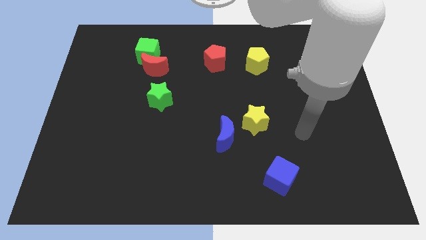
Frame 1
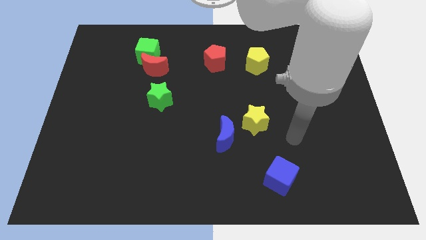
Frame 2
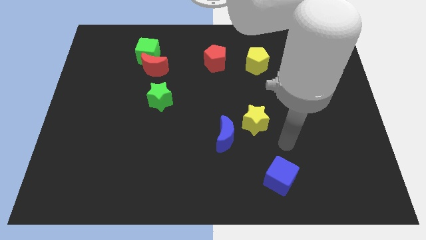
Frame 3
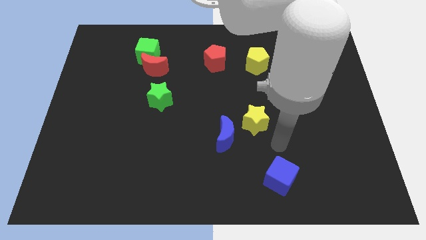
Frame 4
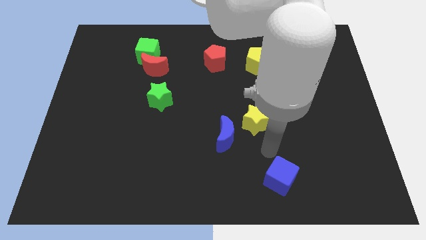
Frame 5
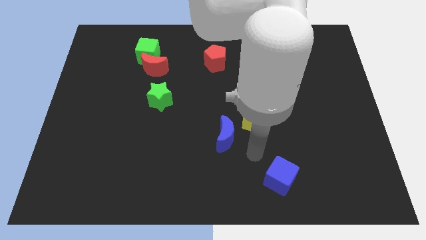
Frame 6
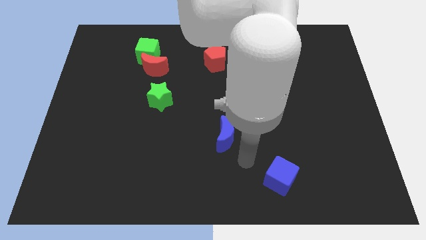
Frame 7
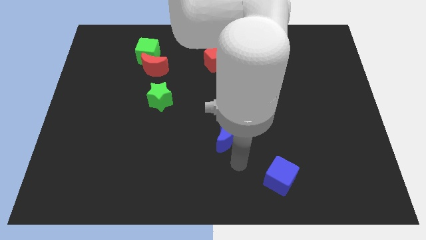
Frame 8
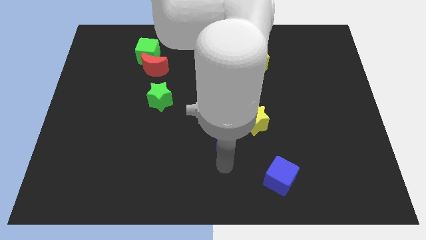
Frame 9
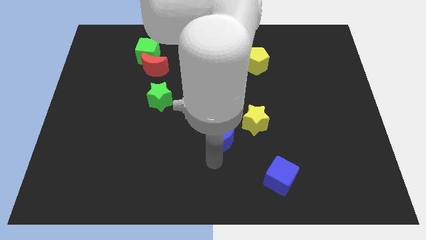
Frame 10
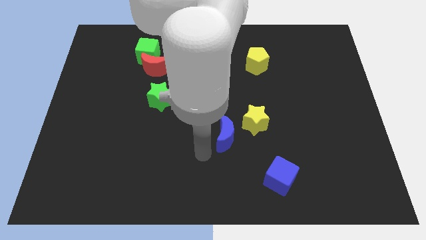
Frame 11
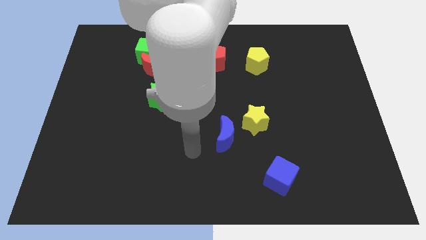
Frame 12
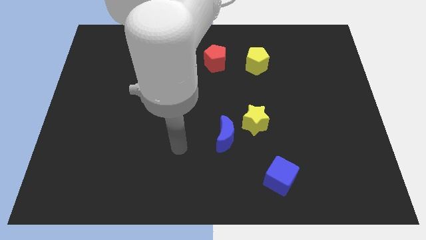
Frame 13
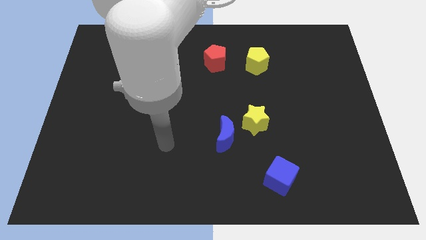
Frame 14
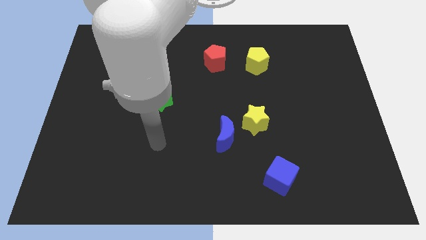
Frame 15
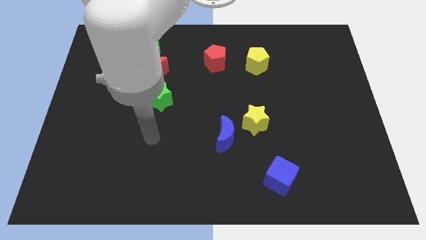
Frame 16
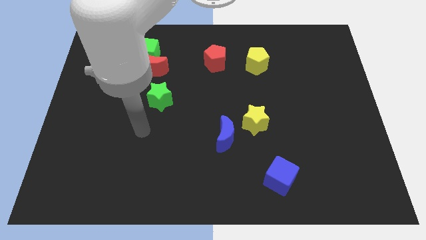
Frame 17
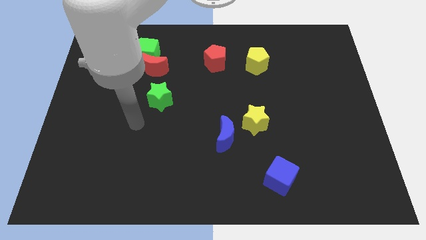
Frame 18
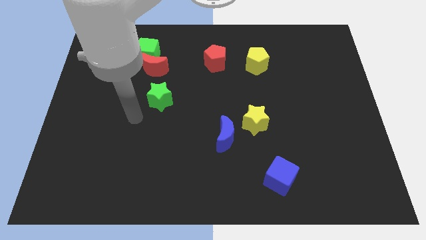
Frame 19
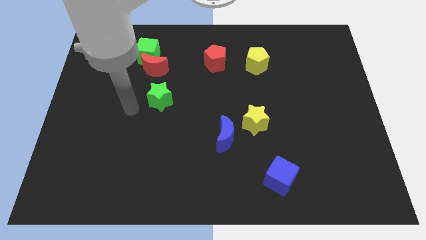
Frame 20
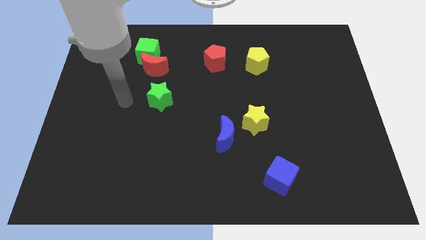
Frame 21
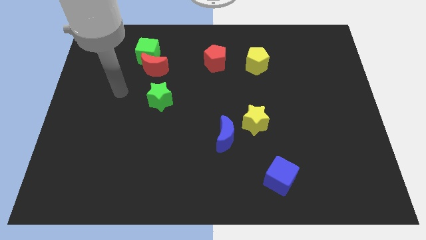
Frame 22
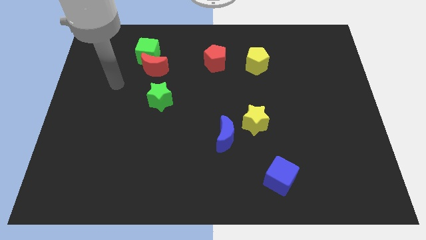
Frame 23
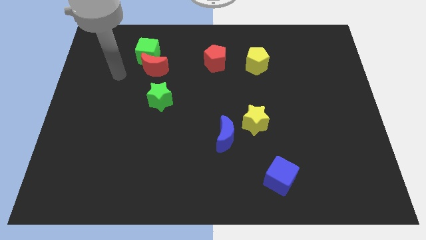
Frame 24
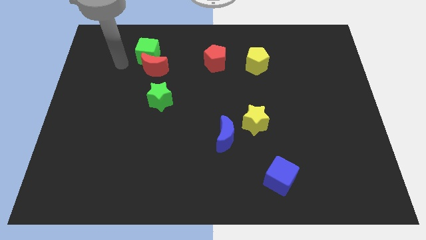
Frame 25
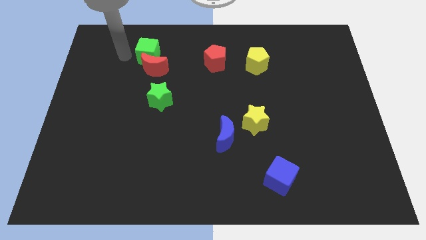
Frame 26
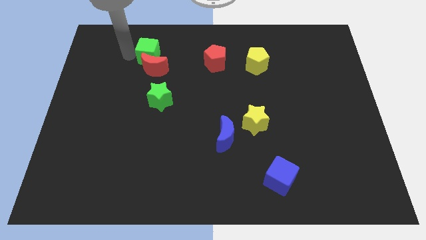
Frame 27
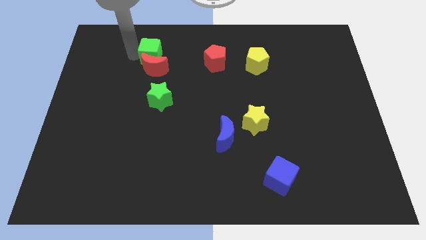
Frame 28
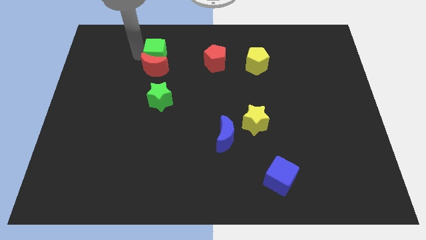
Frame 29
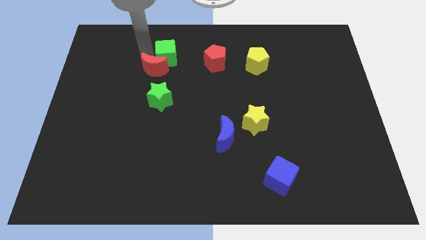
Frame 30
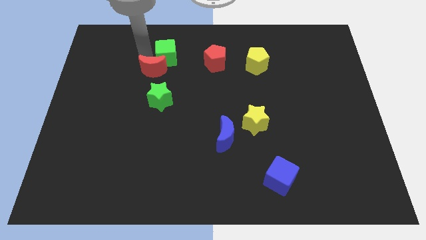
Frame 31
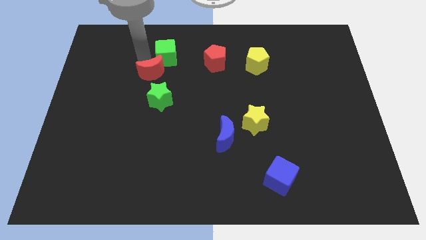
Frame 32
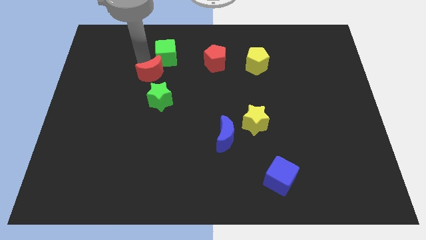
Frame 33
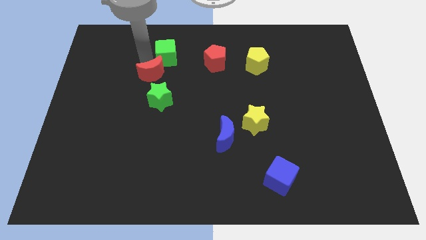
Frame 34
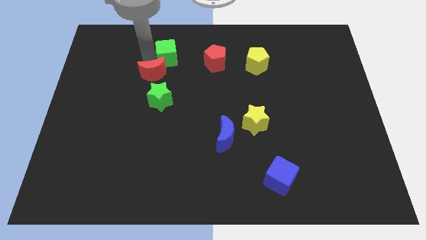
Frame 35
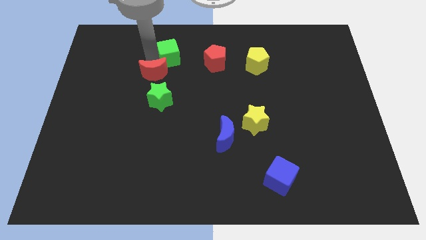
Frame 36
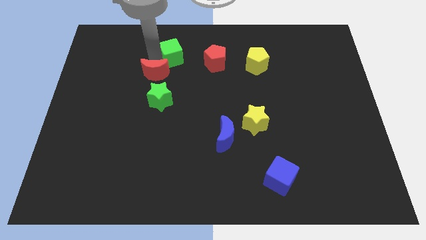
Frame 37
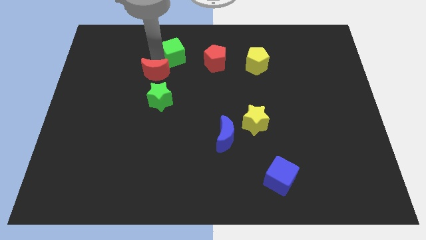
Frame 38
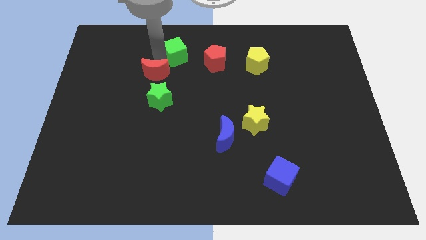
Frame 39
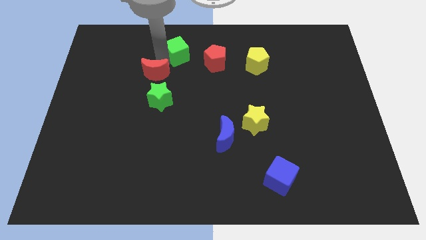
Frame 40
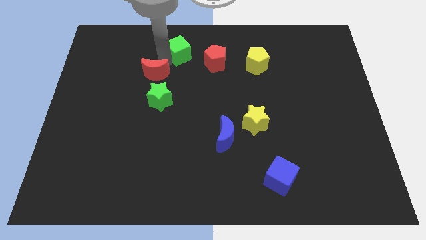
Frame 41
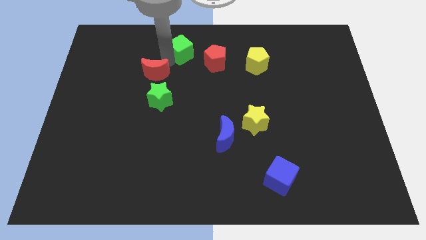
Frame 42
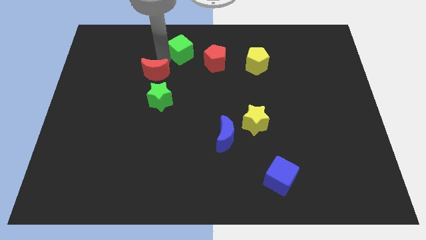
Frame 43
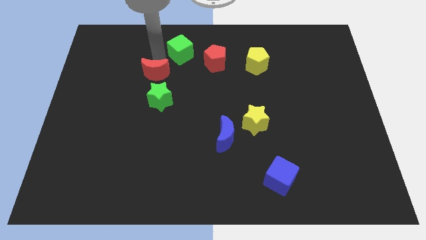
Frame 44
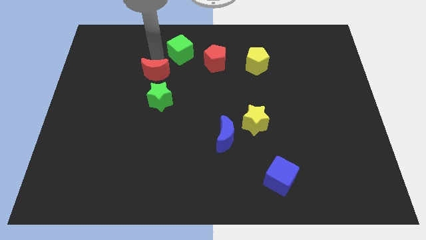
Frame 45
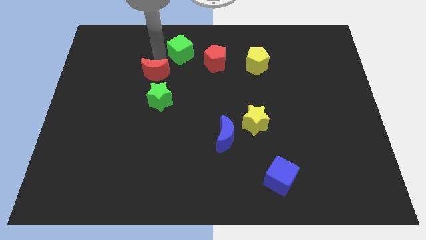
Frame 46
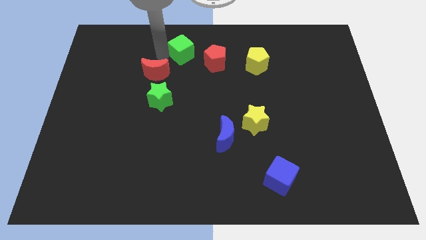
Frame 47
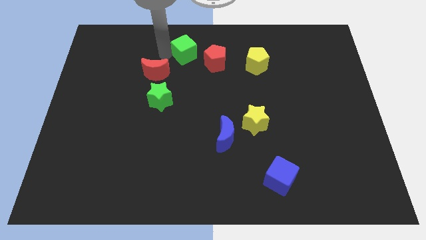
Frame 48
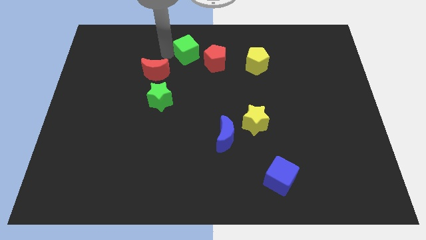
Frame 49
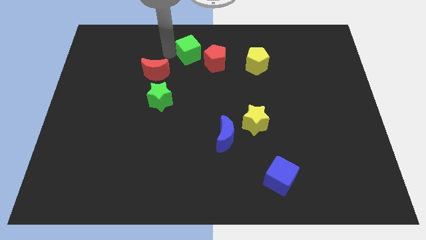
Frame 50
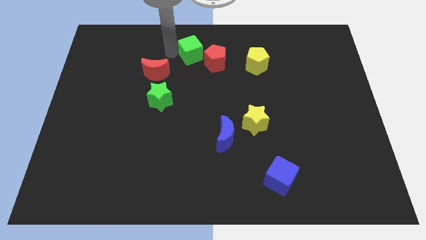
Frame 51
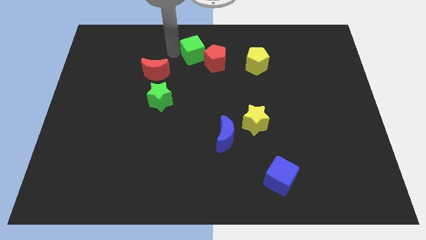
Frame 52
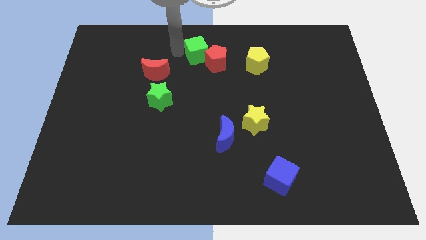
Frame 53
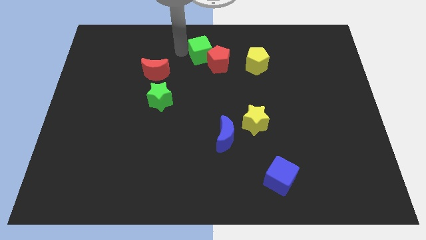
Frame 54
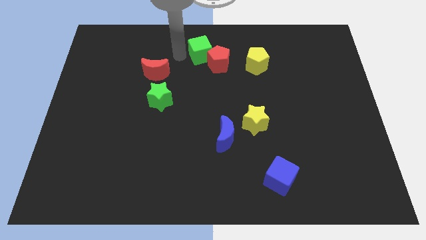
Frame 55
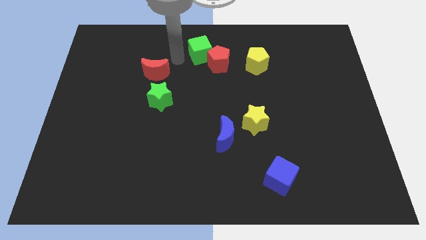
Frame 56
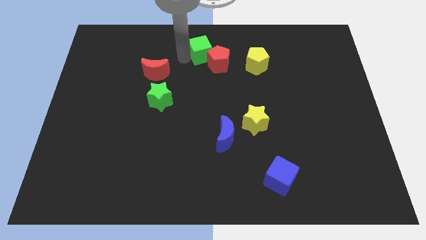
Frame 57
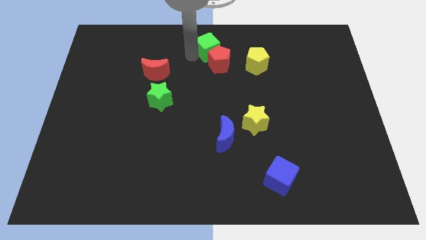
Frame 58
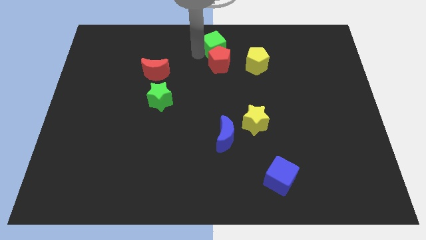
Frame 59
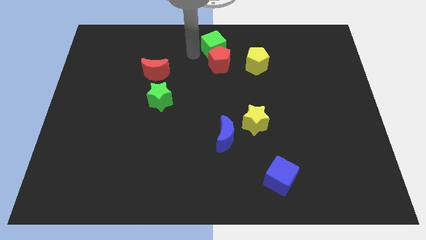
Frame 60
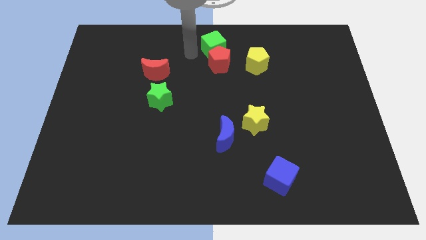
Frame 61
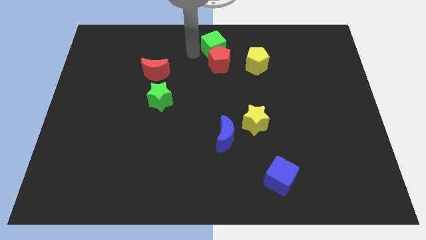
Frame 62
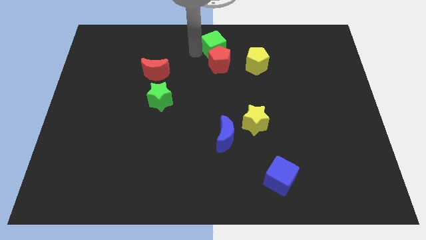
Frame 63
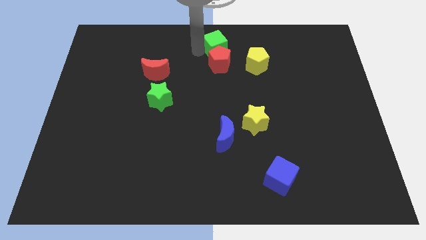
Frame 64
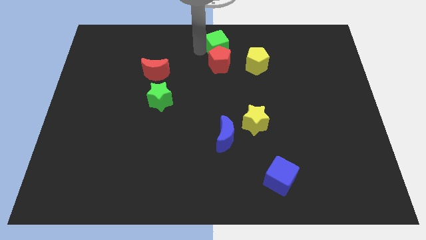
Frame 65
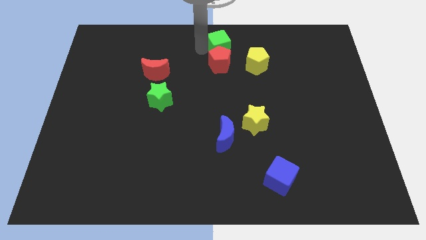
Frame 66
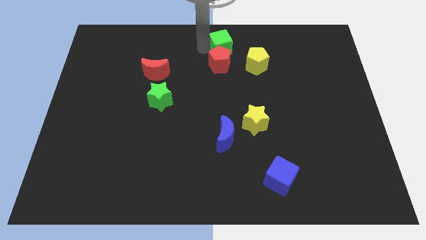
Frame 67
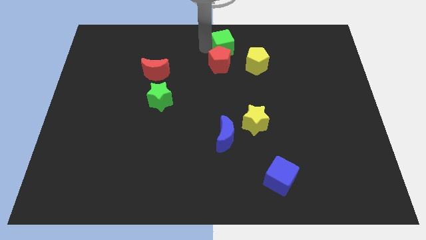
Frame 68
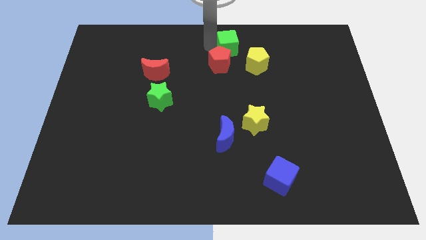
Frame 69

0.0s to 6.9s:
slide the green cube right

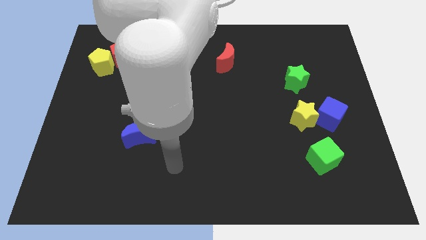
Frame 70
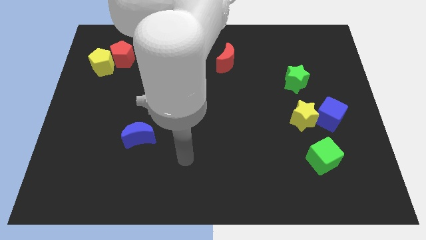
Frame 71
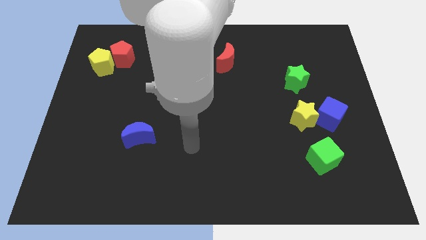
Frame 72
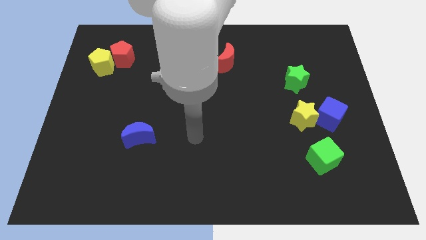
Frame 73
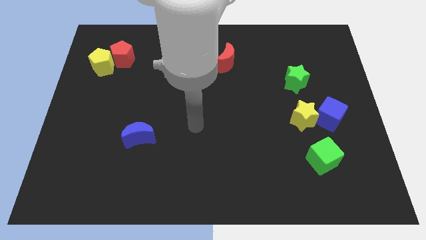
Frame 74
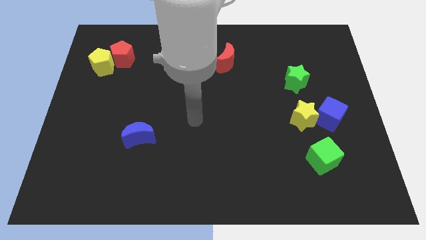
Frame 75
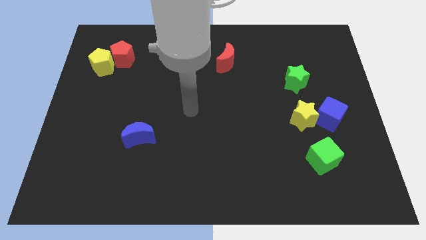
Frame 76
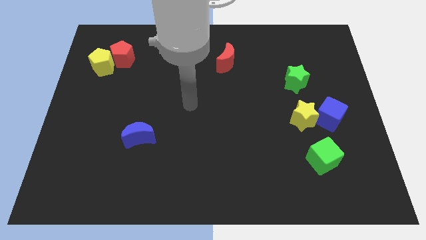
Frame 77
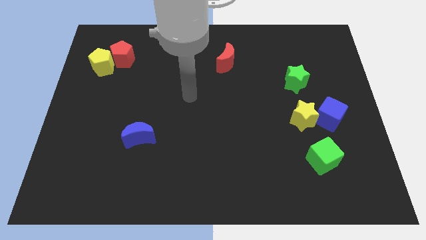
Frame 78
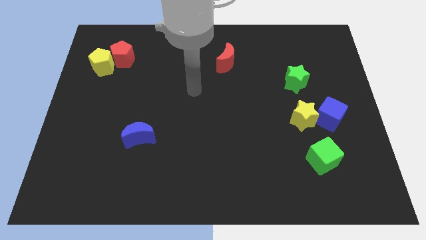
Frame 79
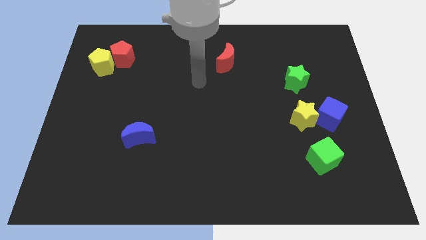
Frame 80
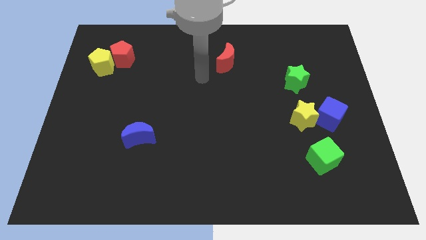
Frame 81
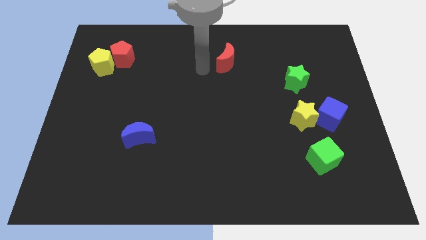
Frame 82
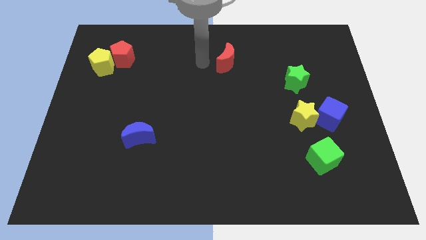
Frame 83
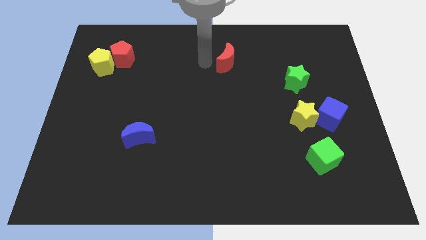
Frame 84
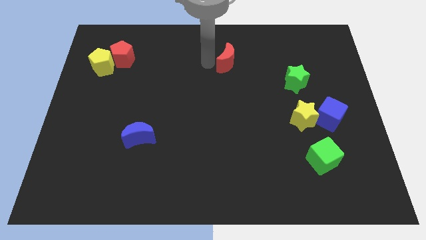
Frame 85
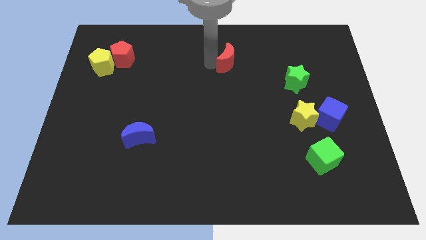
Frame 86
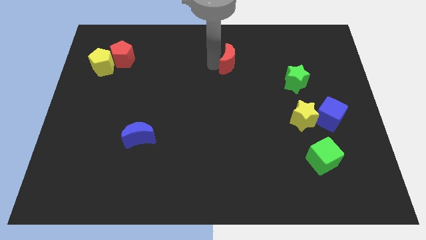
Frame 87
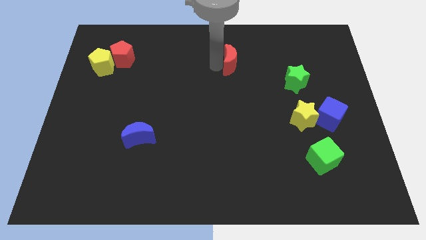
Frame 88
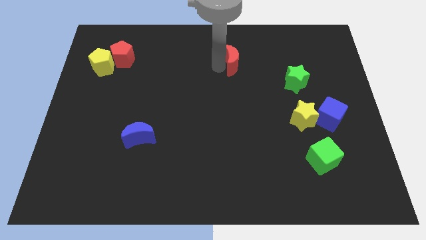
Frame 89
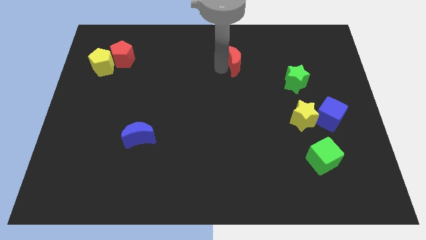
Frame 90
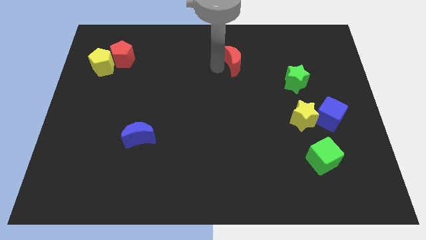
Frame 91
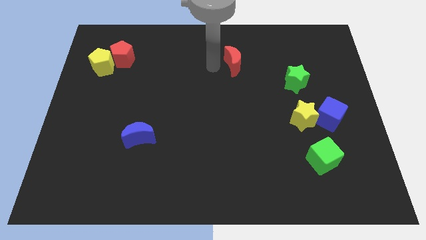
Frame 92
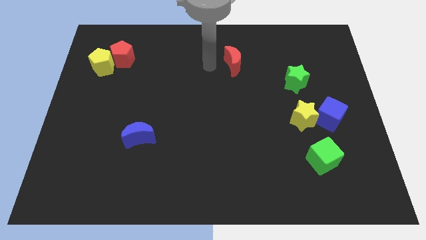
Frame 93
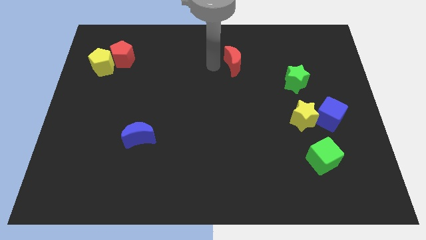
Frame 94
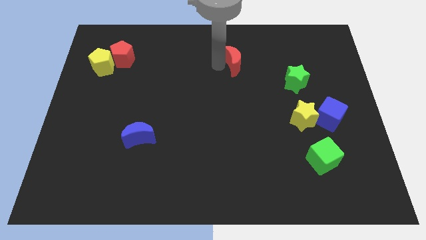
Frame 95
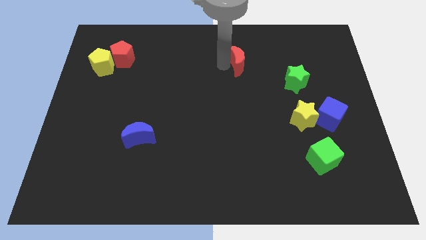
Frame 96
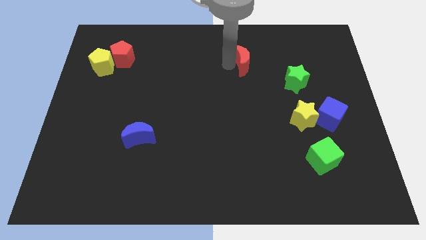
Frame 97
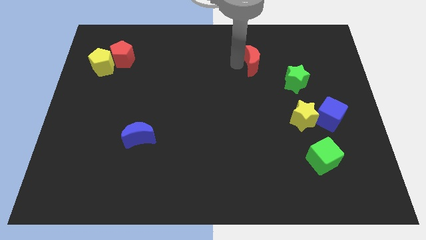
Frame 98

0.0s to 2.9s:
move the red moon slightly to the right
